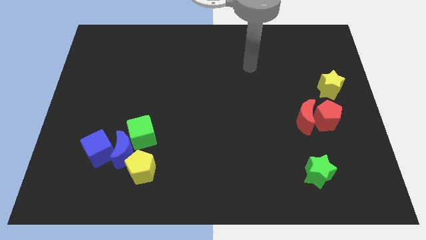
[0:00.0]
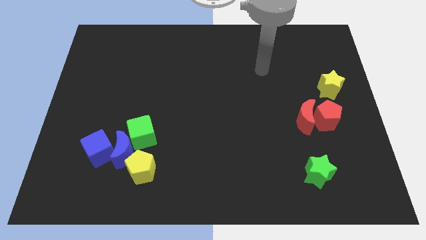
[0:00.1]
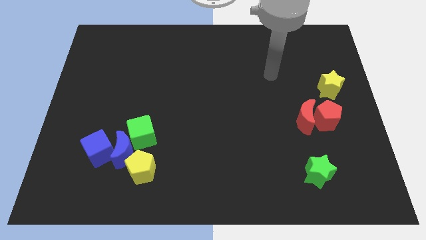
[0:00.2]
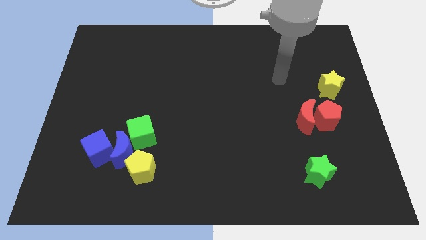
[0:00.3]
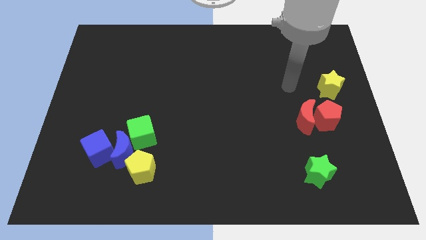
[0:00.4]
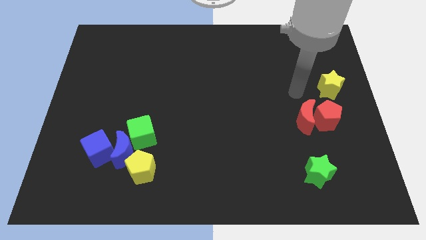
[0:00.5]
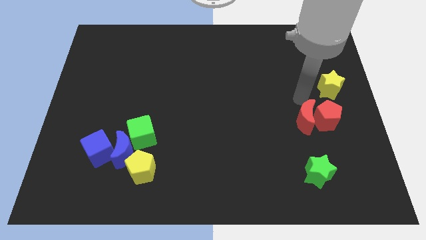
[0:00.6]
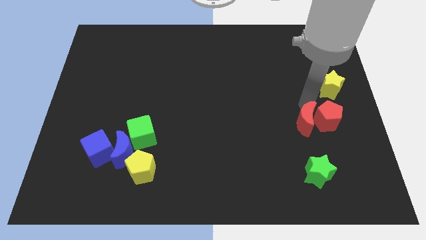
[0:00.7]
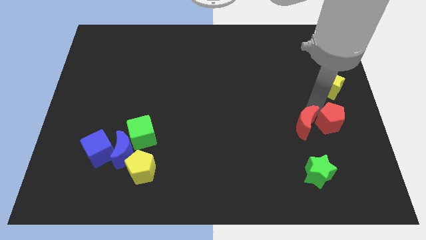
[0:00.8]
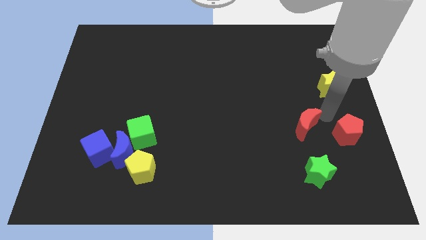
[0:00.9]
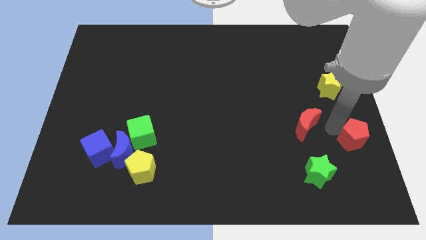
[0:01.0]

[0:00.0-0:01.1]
separate the red moon from the red pentagon

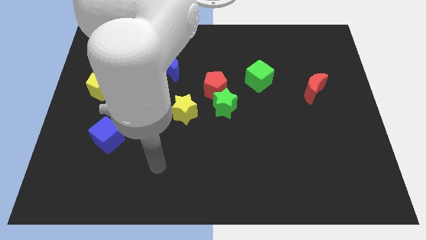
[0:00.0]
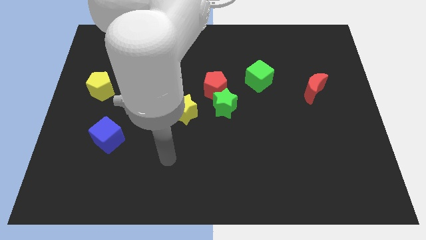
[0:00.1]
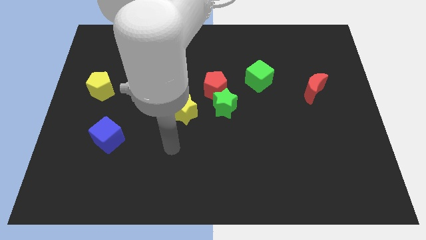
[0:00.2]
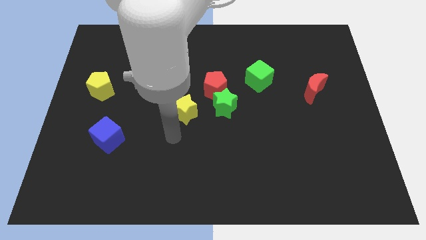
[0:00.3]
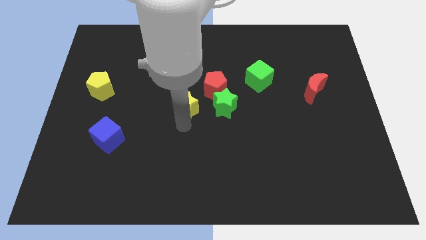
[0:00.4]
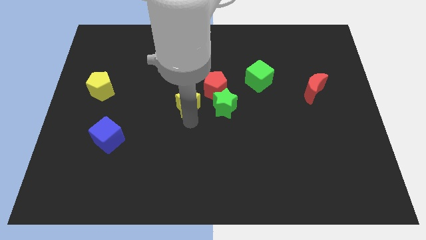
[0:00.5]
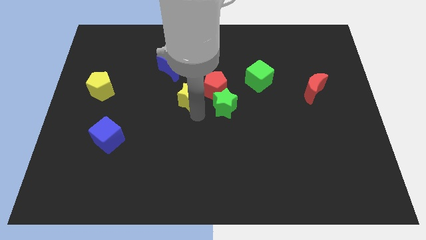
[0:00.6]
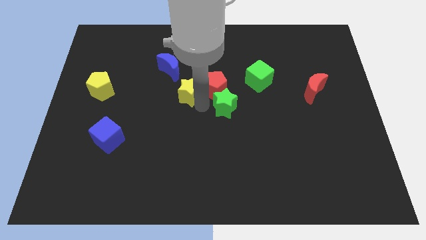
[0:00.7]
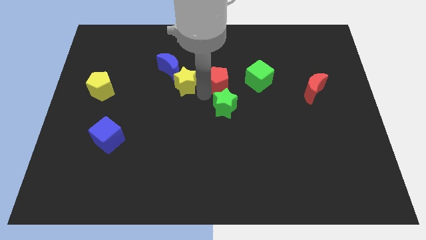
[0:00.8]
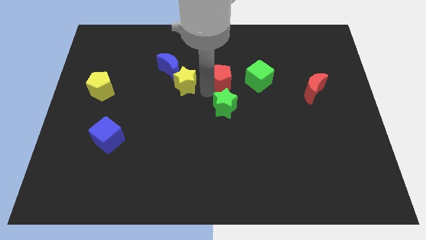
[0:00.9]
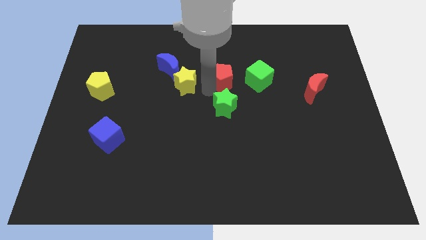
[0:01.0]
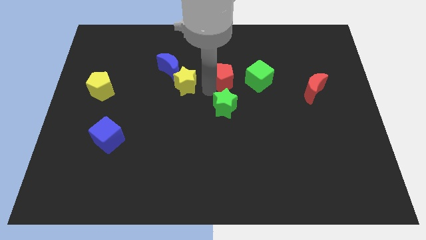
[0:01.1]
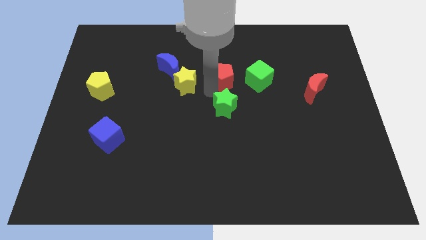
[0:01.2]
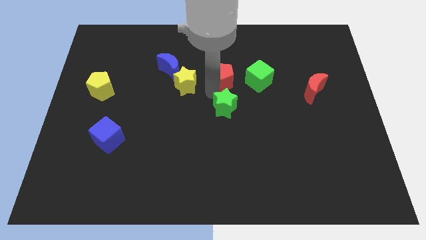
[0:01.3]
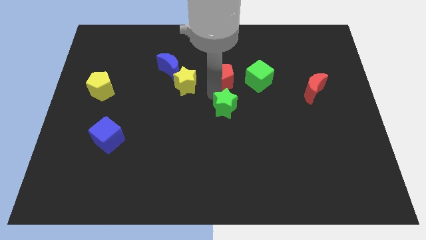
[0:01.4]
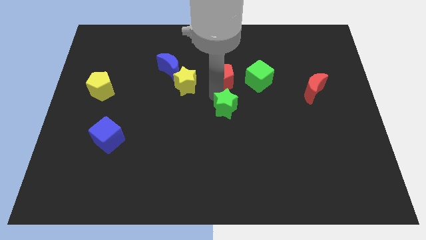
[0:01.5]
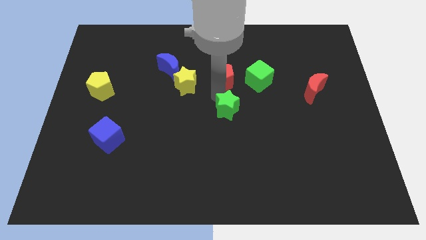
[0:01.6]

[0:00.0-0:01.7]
separate the green star from the red pentagon and yellow star

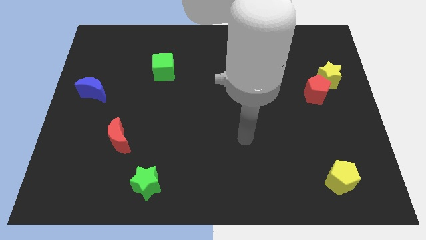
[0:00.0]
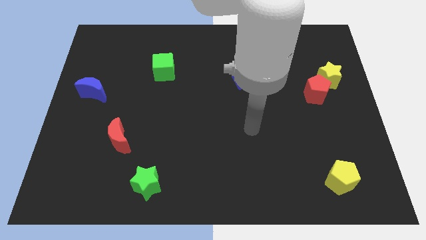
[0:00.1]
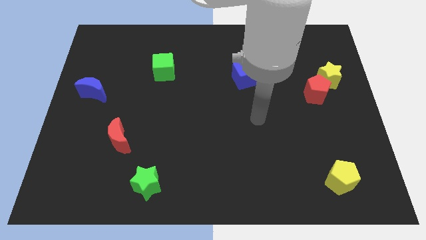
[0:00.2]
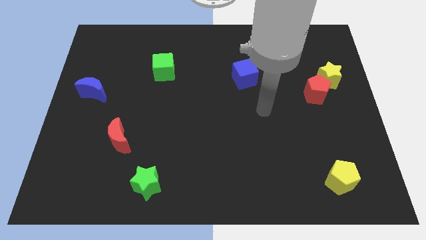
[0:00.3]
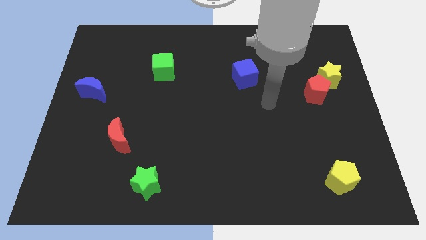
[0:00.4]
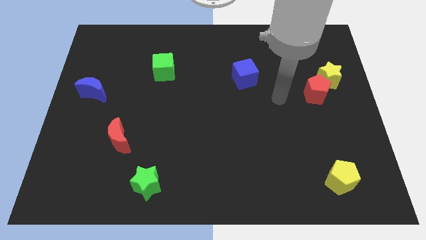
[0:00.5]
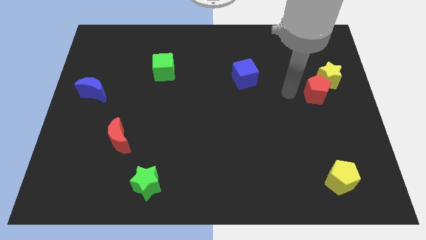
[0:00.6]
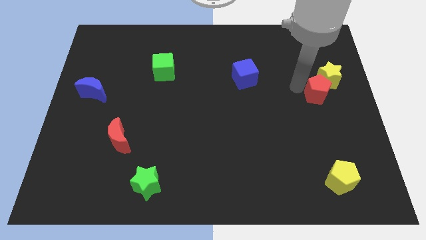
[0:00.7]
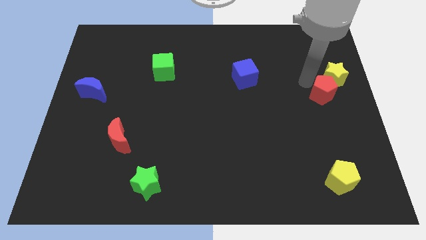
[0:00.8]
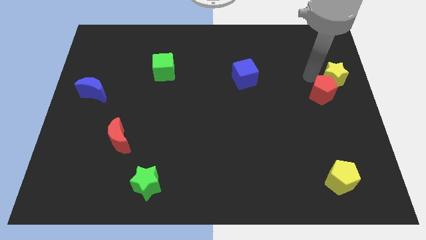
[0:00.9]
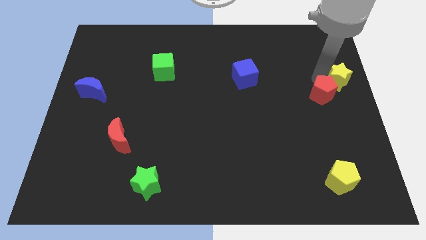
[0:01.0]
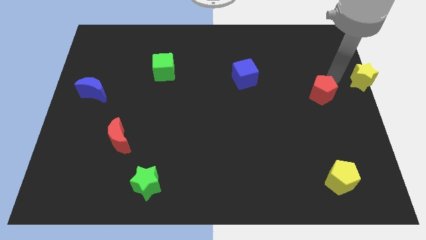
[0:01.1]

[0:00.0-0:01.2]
separate the red pentagon from the yellow star

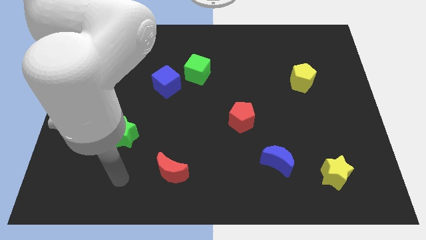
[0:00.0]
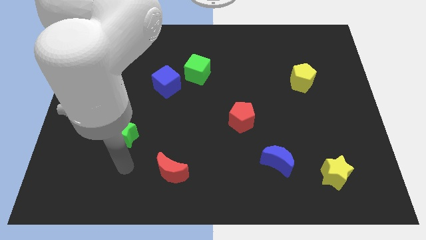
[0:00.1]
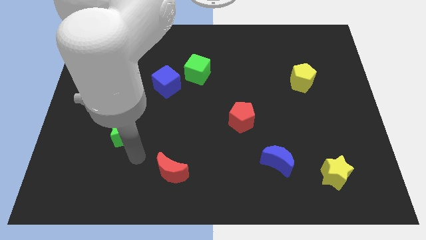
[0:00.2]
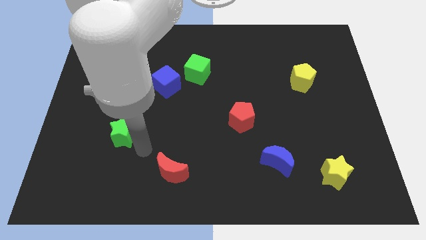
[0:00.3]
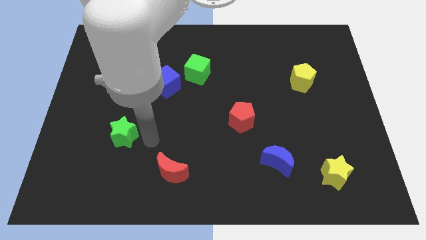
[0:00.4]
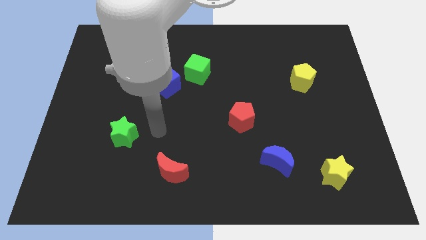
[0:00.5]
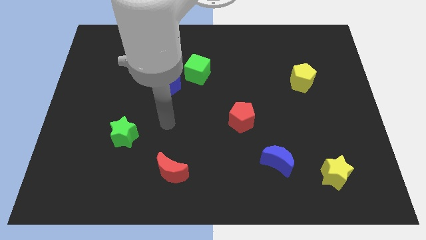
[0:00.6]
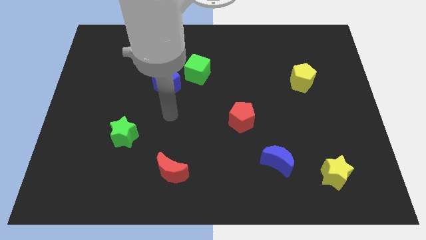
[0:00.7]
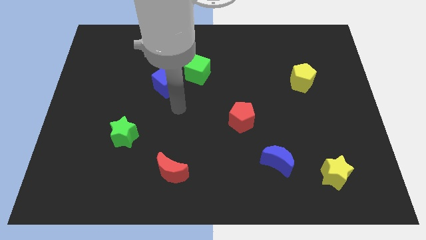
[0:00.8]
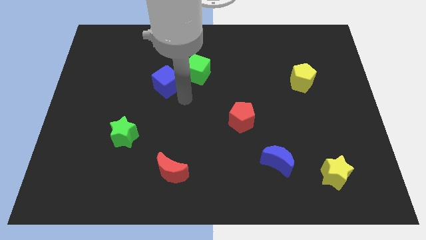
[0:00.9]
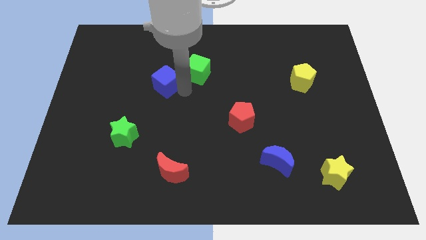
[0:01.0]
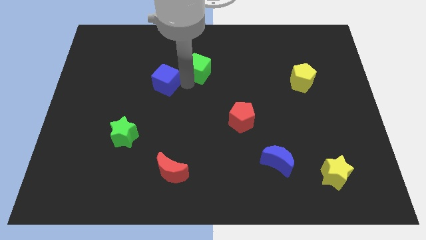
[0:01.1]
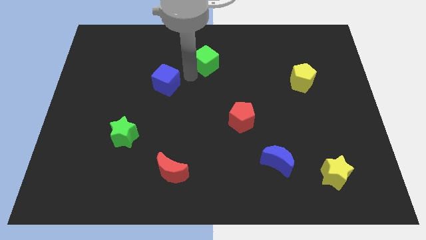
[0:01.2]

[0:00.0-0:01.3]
pull the blue cube apart from the green cube

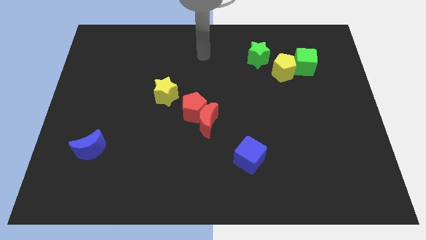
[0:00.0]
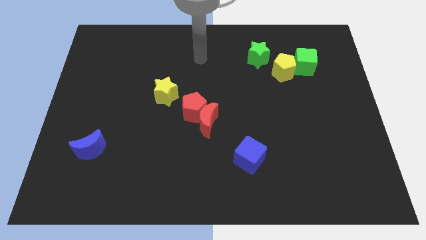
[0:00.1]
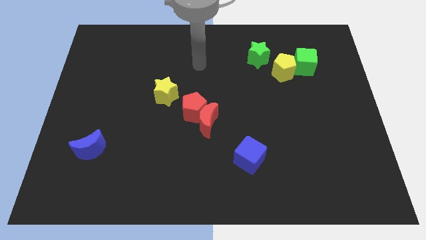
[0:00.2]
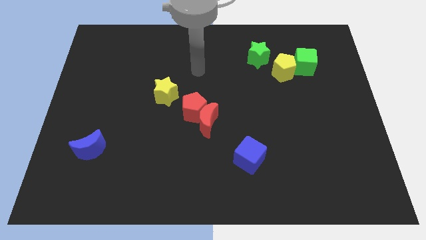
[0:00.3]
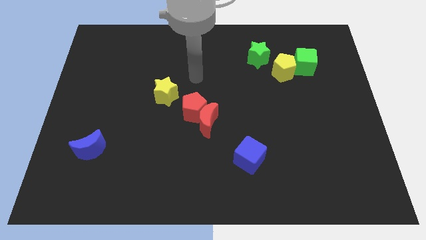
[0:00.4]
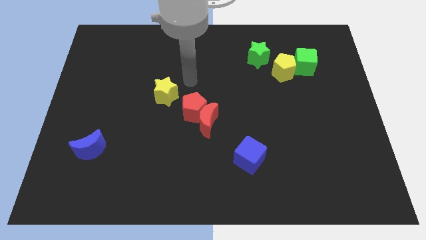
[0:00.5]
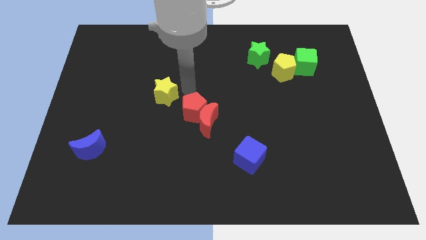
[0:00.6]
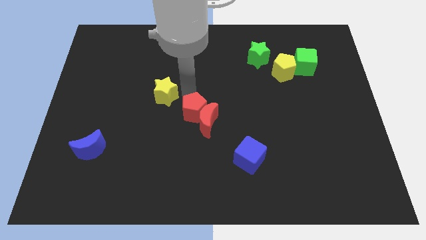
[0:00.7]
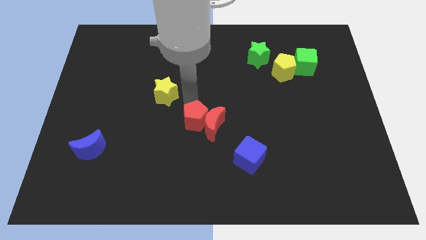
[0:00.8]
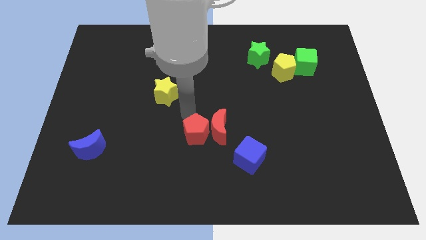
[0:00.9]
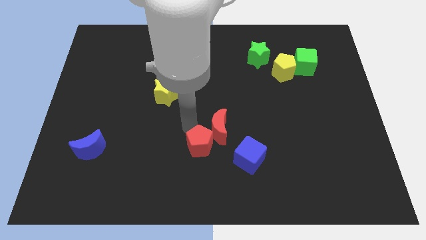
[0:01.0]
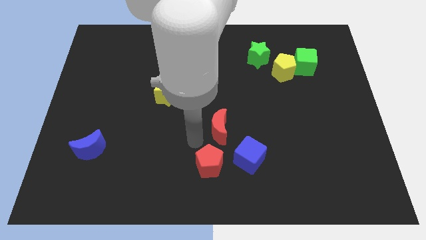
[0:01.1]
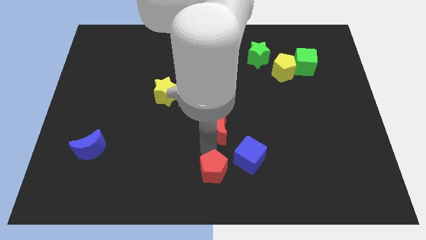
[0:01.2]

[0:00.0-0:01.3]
pull the red moon apart from the red pentagon

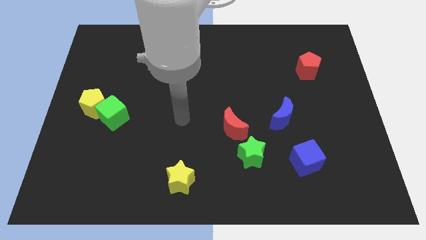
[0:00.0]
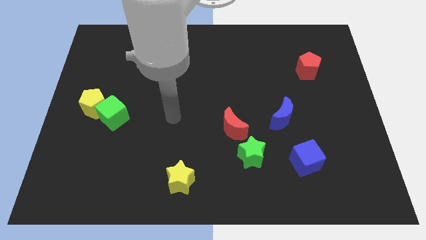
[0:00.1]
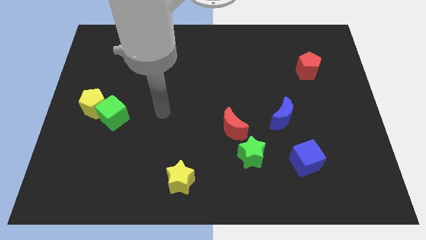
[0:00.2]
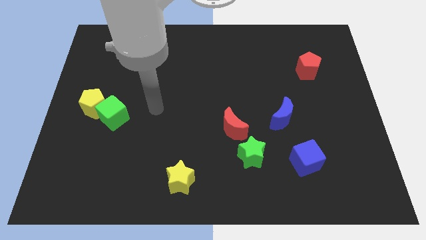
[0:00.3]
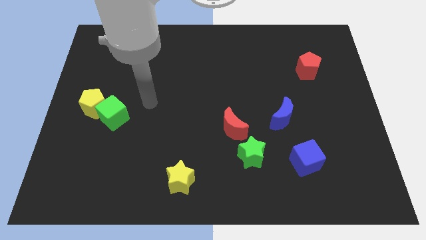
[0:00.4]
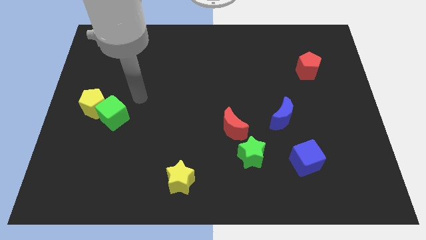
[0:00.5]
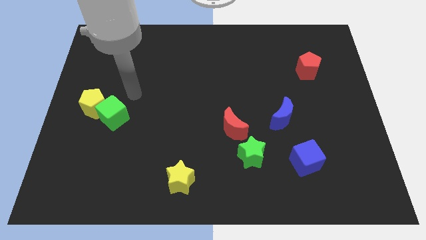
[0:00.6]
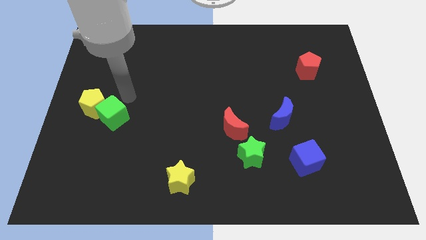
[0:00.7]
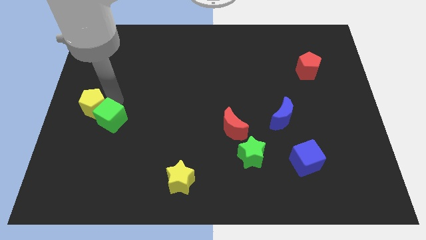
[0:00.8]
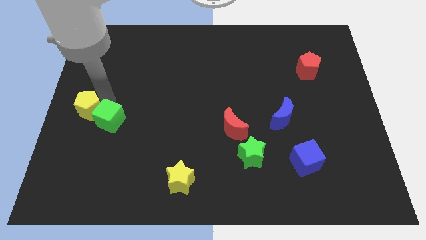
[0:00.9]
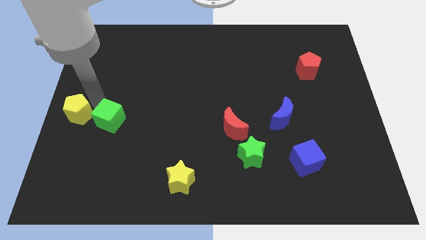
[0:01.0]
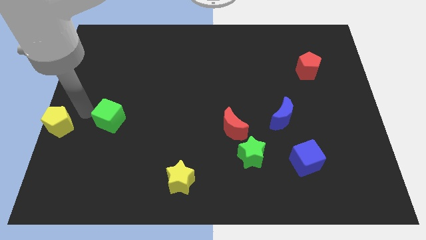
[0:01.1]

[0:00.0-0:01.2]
separate the green cube from the yellow pentagon

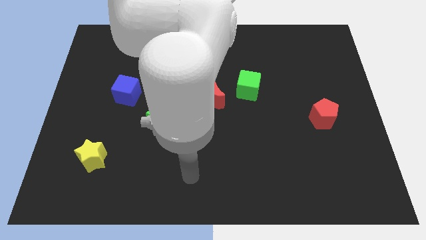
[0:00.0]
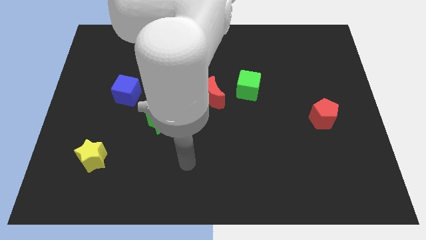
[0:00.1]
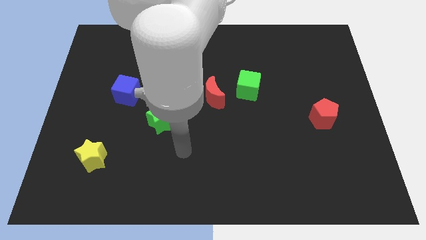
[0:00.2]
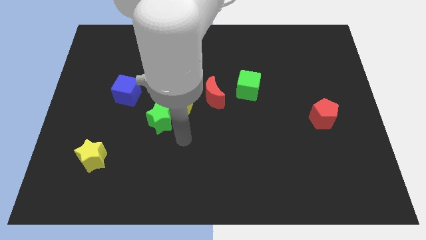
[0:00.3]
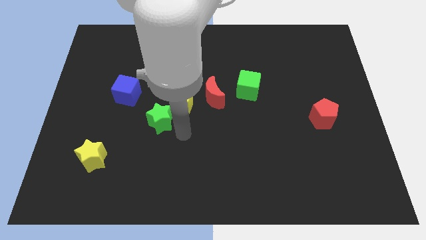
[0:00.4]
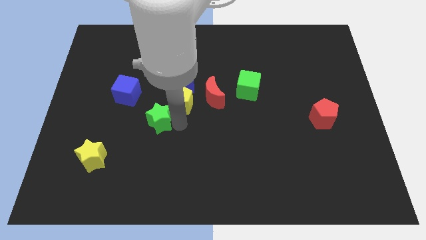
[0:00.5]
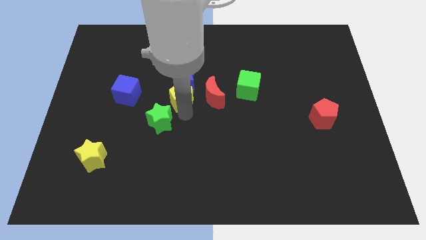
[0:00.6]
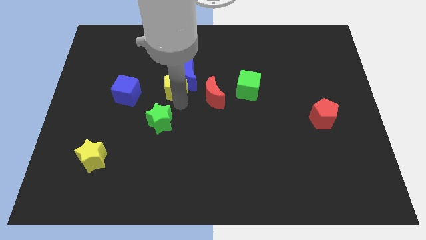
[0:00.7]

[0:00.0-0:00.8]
pull the green star apart from the yellow pentagon

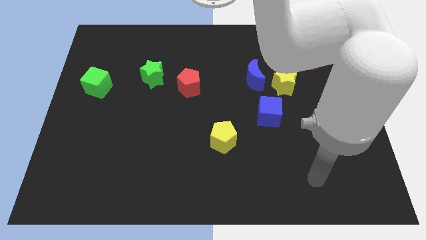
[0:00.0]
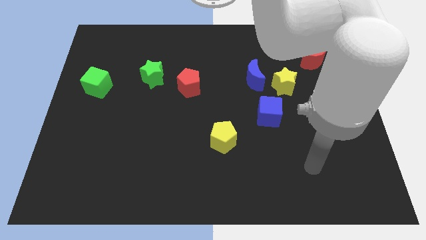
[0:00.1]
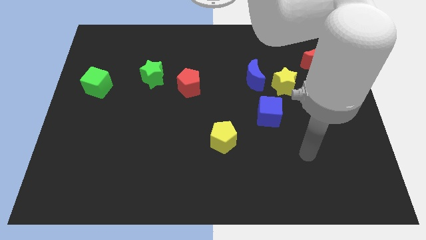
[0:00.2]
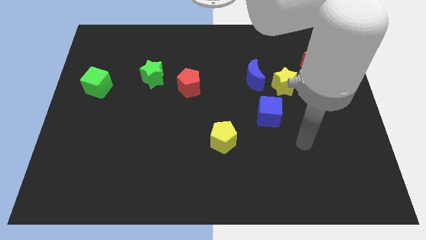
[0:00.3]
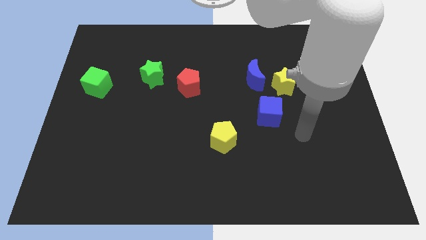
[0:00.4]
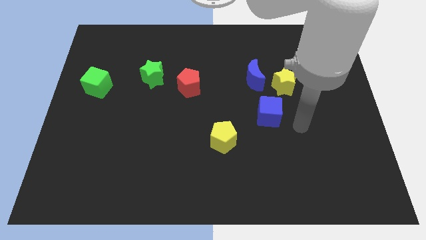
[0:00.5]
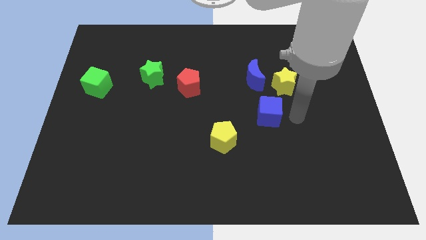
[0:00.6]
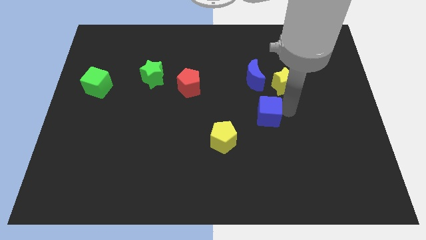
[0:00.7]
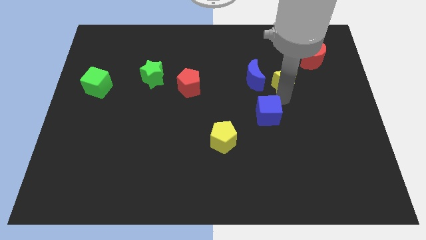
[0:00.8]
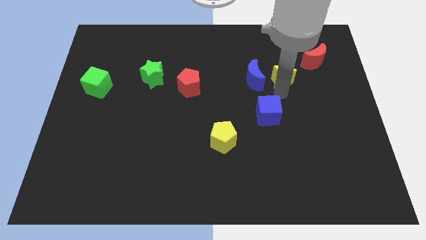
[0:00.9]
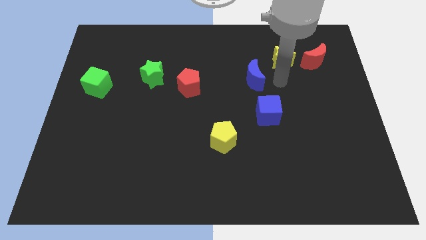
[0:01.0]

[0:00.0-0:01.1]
move the blue moon away from the yellow star
